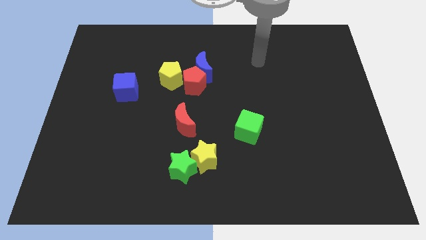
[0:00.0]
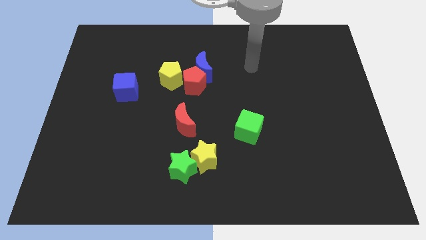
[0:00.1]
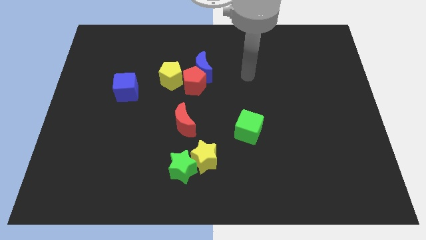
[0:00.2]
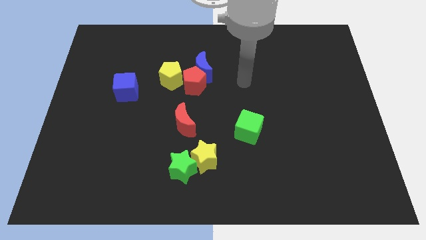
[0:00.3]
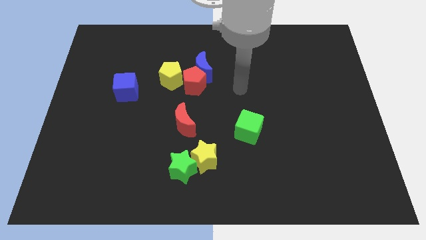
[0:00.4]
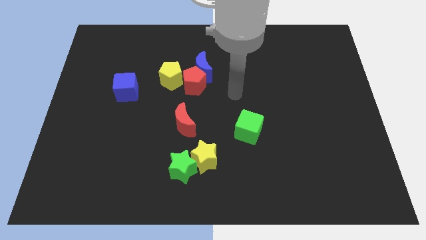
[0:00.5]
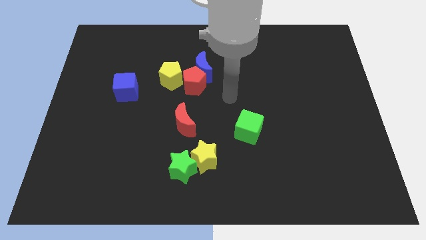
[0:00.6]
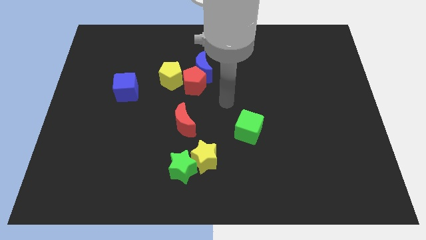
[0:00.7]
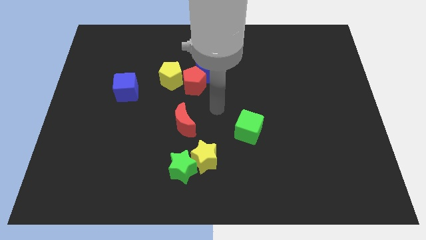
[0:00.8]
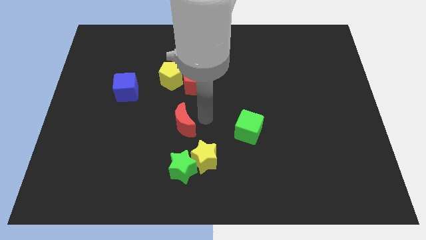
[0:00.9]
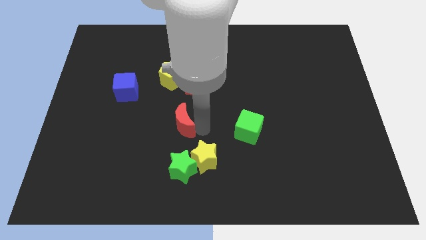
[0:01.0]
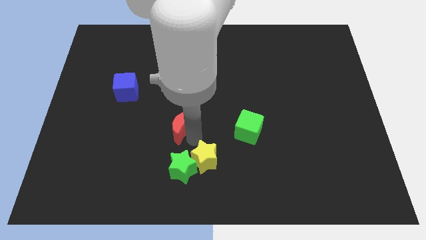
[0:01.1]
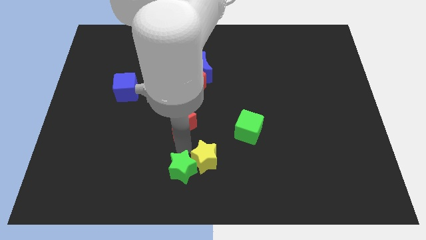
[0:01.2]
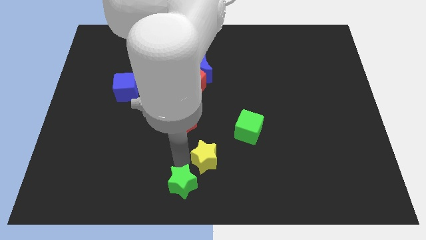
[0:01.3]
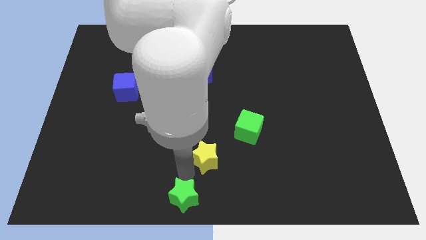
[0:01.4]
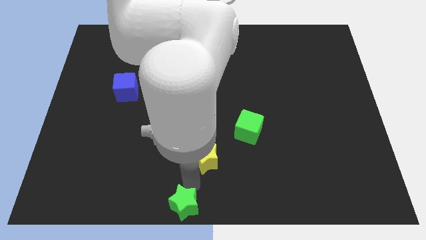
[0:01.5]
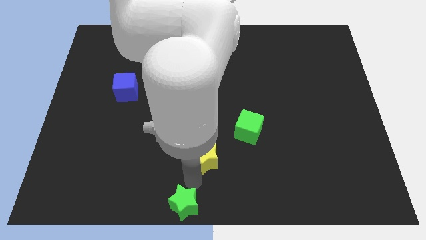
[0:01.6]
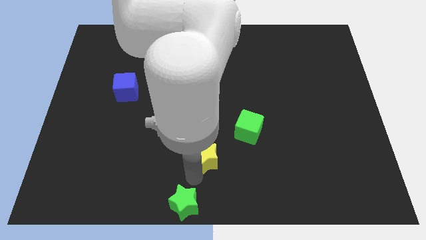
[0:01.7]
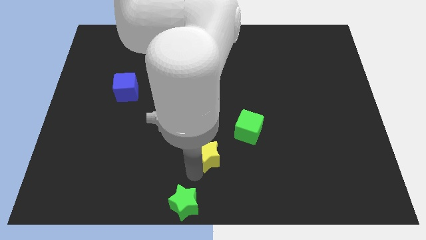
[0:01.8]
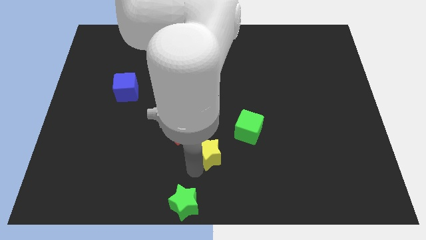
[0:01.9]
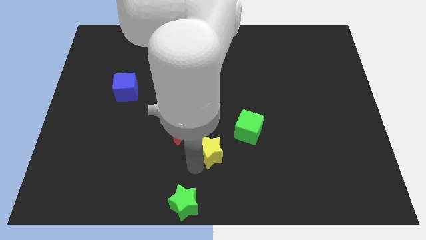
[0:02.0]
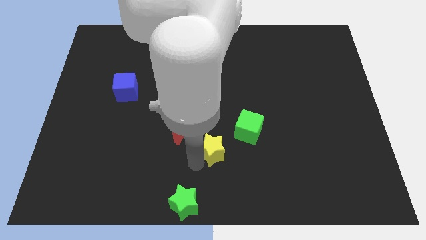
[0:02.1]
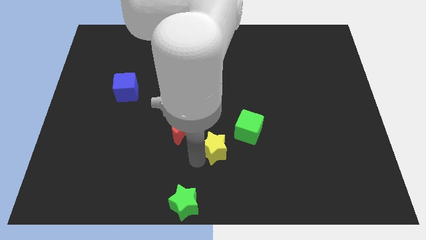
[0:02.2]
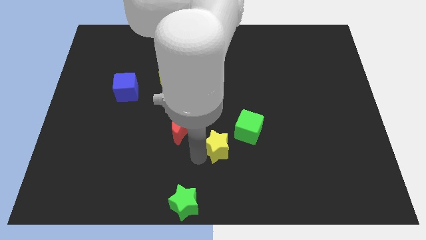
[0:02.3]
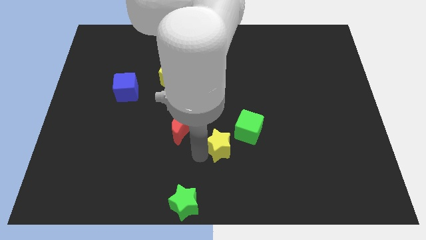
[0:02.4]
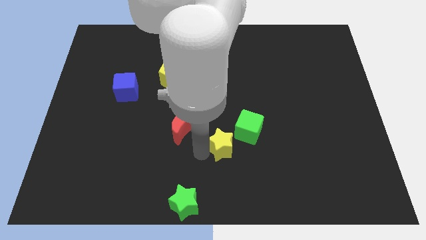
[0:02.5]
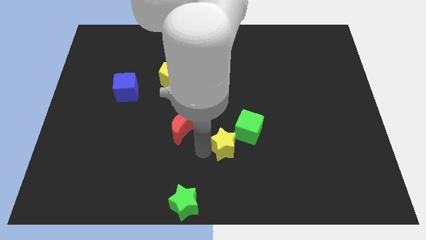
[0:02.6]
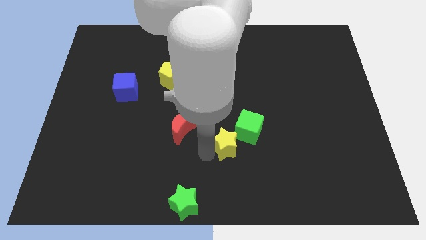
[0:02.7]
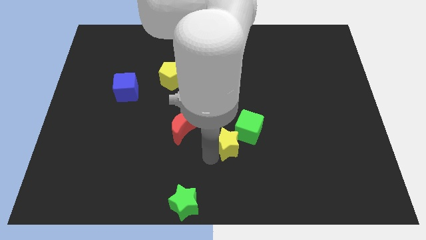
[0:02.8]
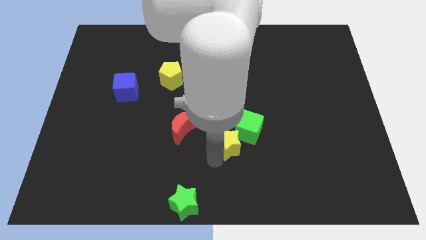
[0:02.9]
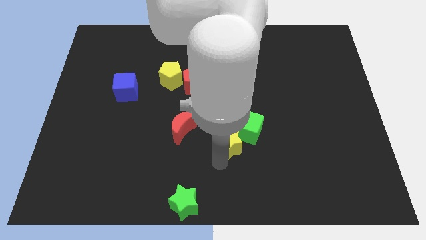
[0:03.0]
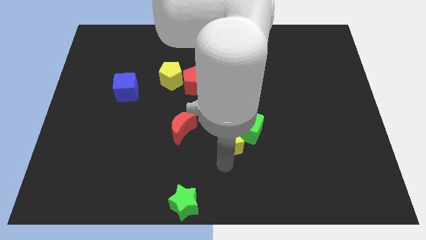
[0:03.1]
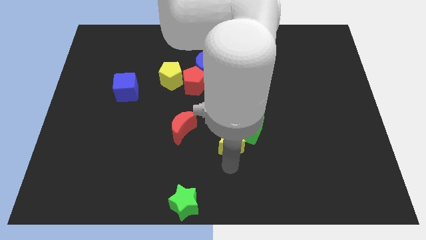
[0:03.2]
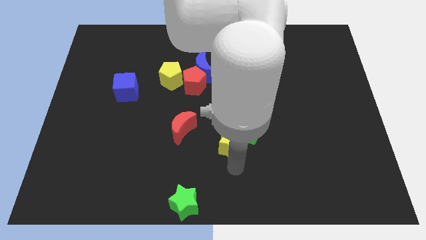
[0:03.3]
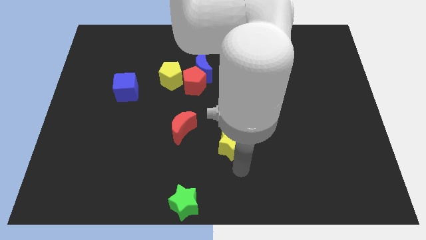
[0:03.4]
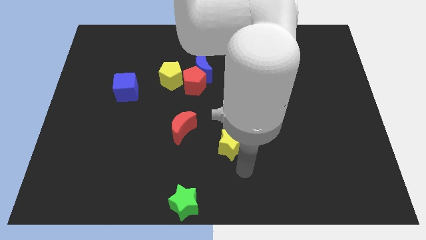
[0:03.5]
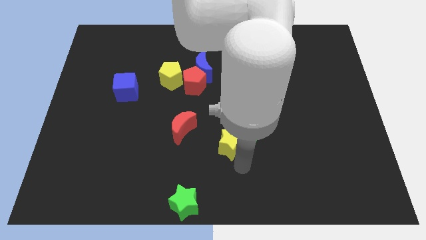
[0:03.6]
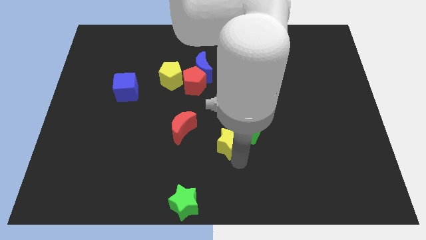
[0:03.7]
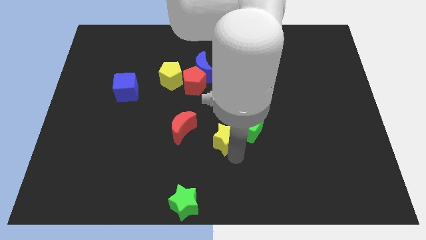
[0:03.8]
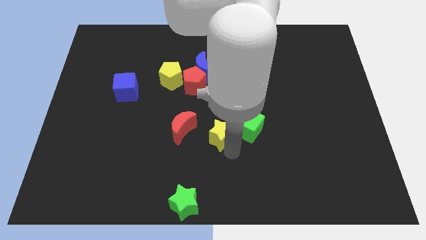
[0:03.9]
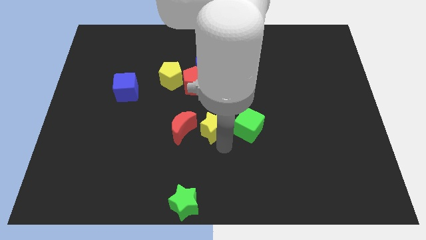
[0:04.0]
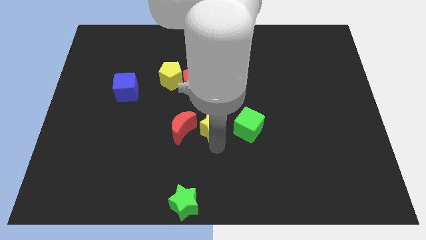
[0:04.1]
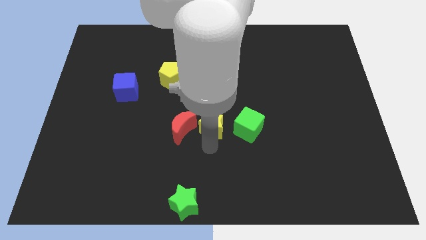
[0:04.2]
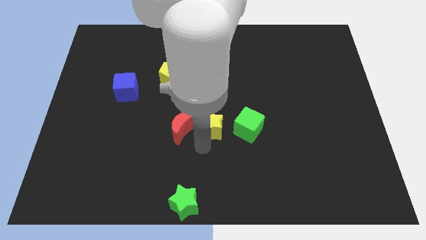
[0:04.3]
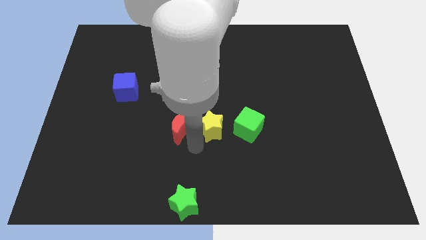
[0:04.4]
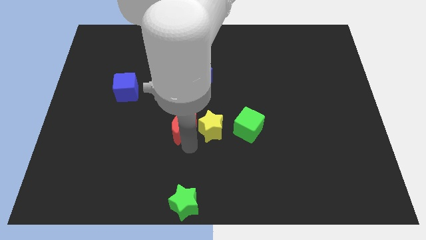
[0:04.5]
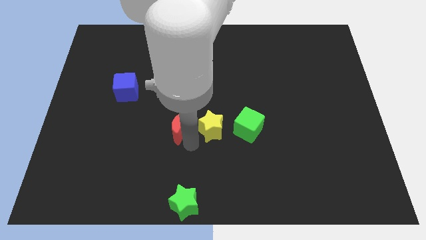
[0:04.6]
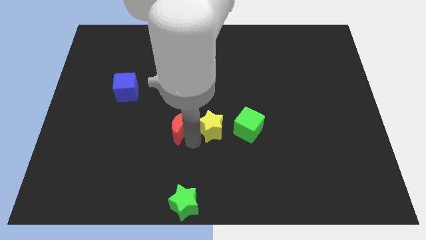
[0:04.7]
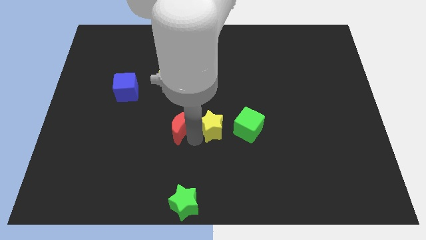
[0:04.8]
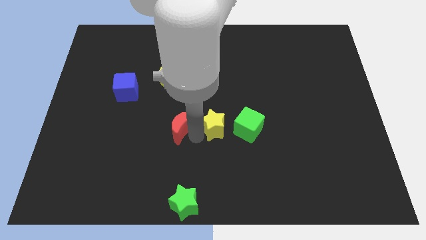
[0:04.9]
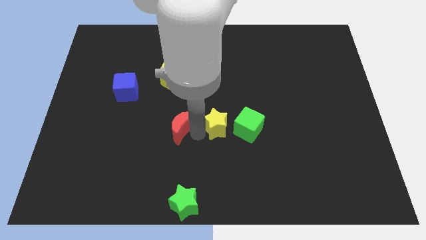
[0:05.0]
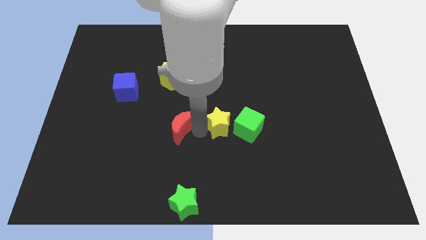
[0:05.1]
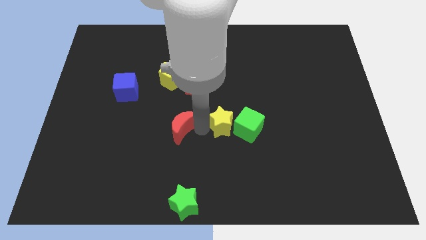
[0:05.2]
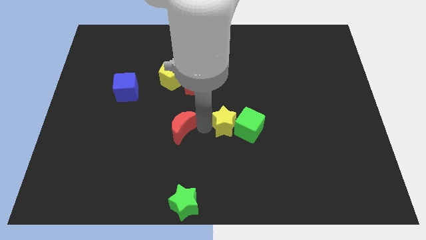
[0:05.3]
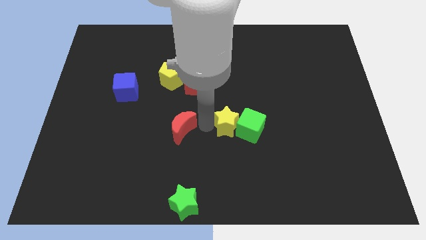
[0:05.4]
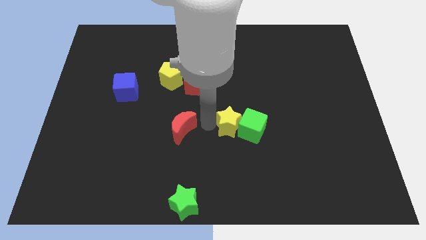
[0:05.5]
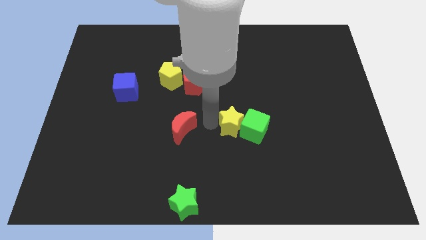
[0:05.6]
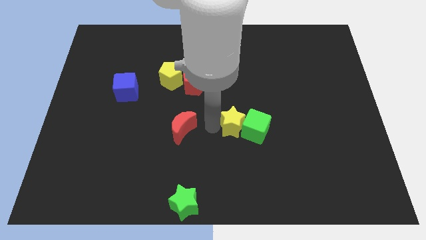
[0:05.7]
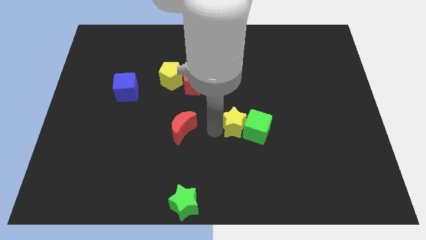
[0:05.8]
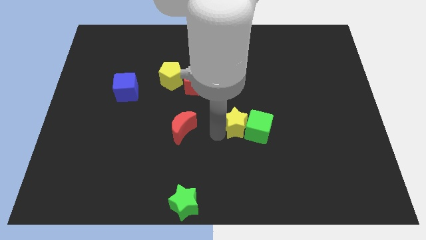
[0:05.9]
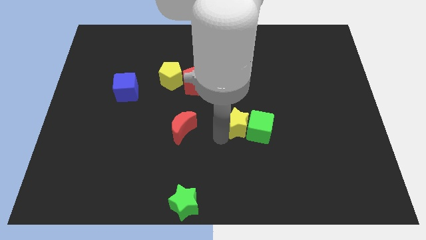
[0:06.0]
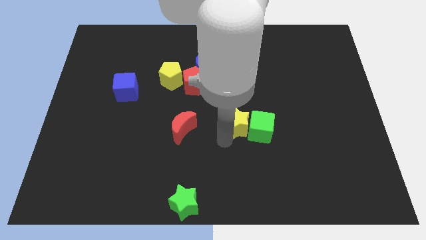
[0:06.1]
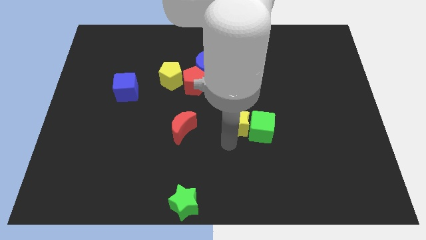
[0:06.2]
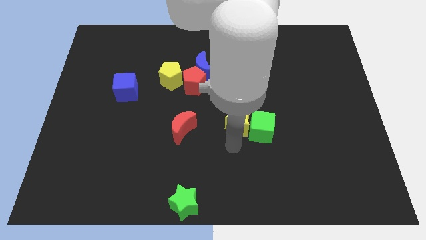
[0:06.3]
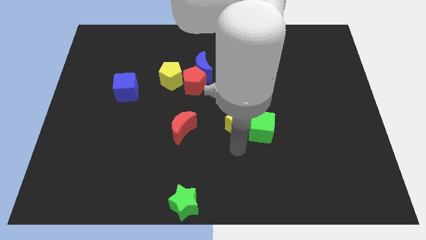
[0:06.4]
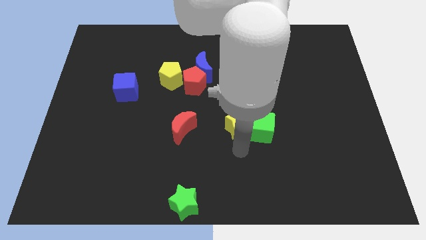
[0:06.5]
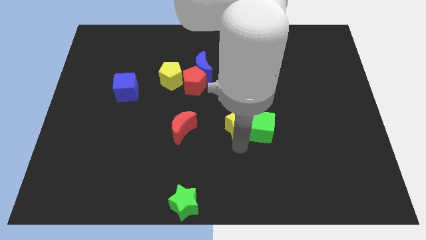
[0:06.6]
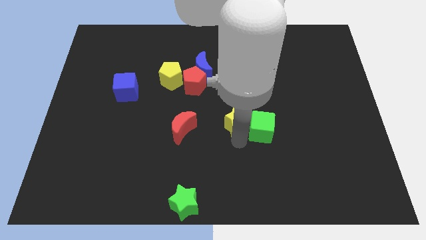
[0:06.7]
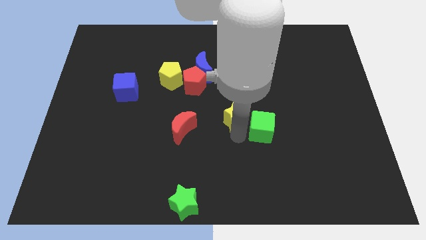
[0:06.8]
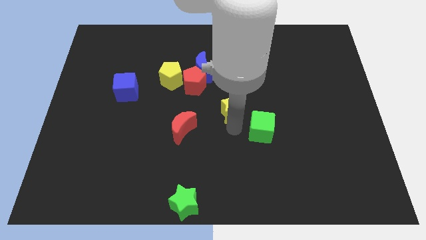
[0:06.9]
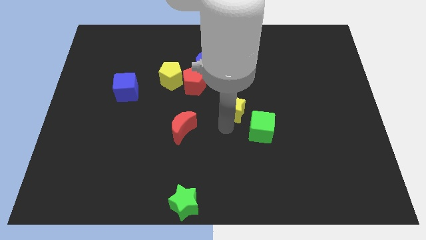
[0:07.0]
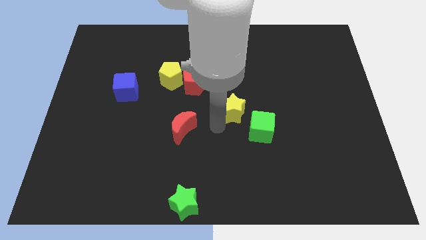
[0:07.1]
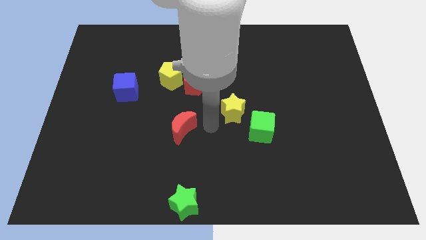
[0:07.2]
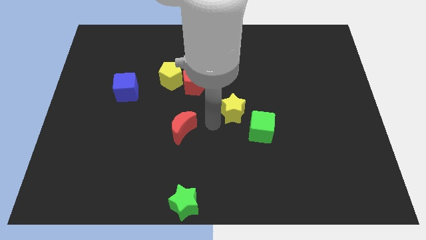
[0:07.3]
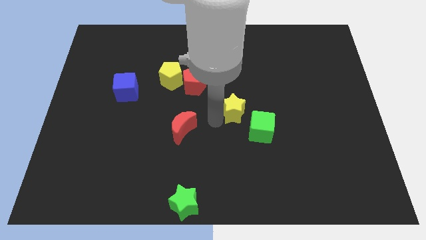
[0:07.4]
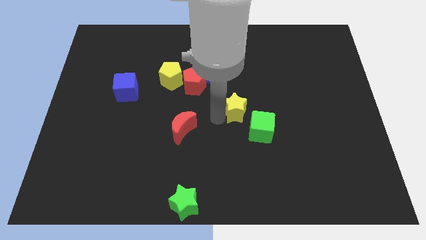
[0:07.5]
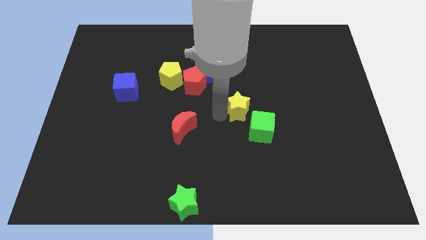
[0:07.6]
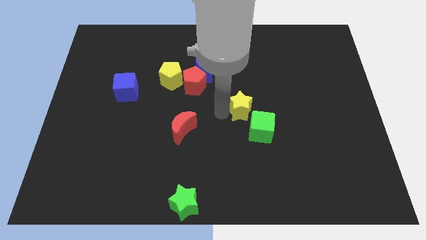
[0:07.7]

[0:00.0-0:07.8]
move the yellow star above the green cube
